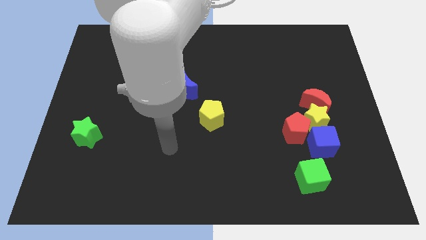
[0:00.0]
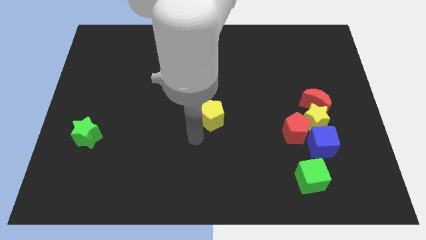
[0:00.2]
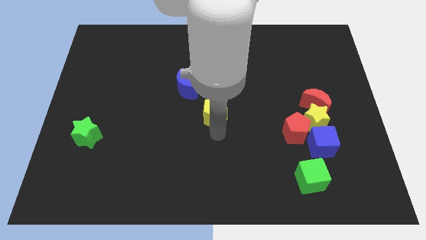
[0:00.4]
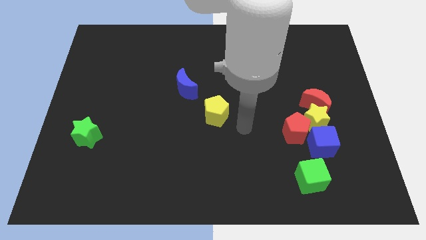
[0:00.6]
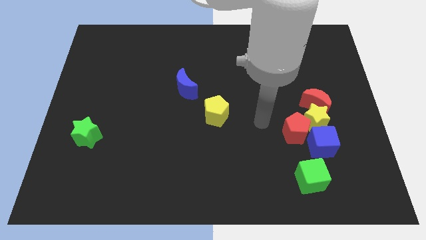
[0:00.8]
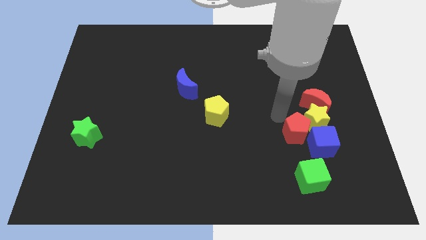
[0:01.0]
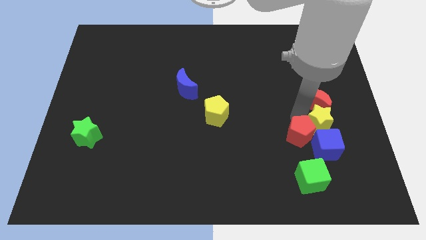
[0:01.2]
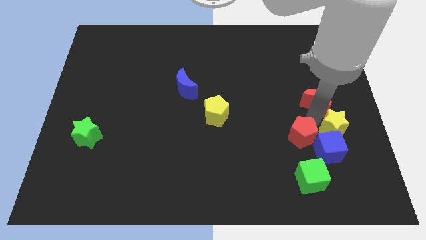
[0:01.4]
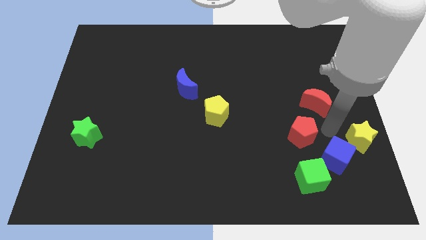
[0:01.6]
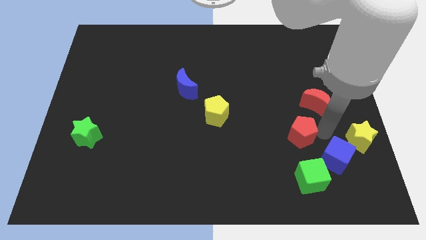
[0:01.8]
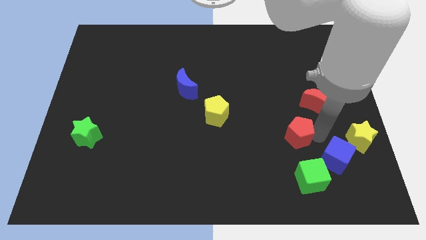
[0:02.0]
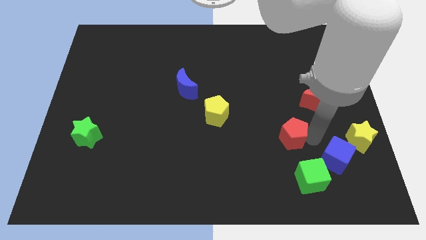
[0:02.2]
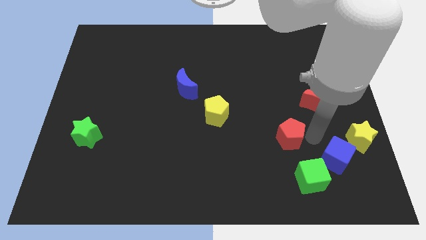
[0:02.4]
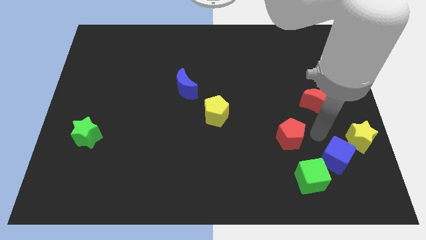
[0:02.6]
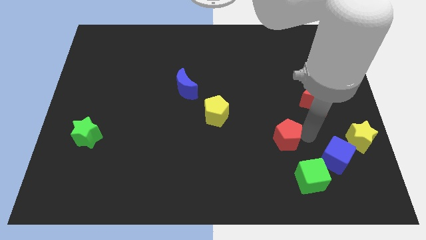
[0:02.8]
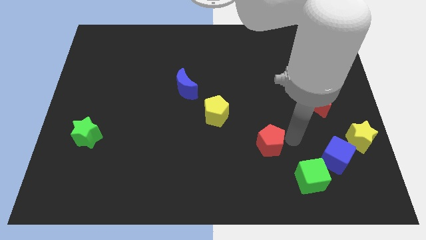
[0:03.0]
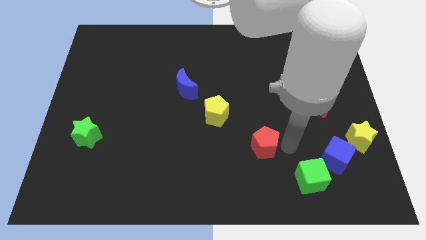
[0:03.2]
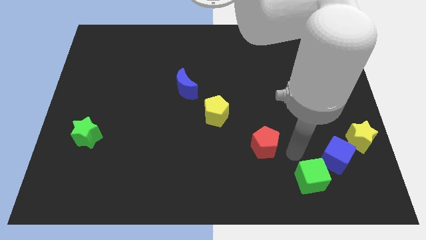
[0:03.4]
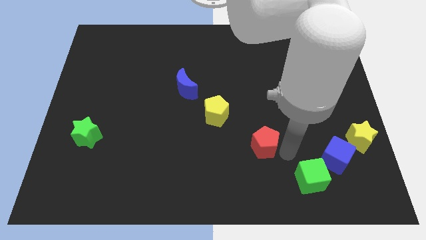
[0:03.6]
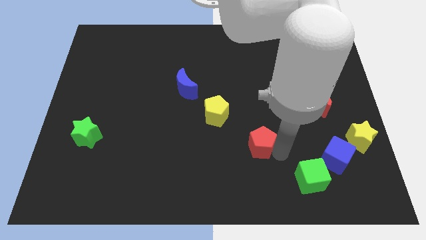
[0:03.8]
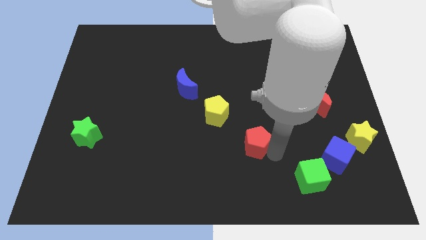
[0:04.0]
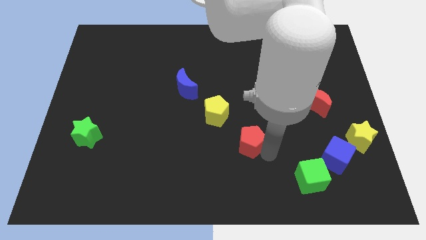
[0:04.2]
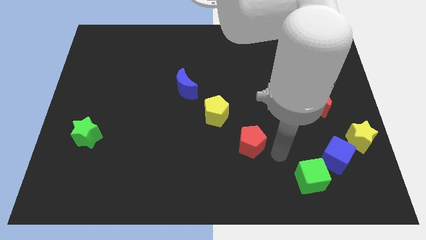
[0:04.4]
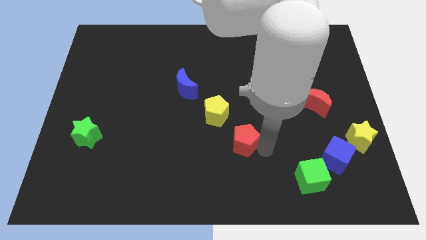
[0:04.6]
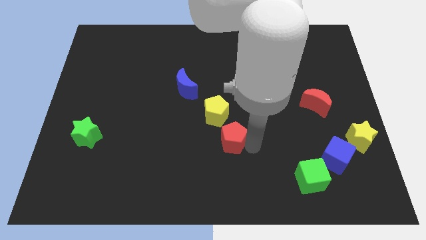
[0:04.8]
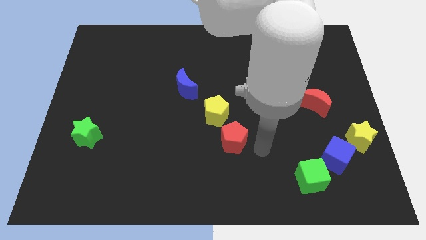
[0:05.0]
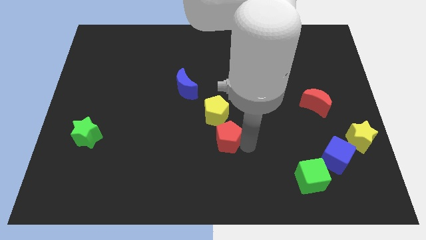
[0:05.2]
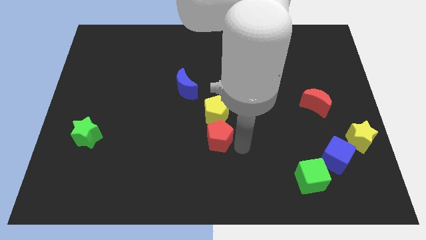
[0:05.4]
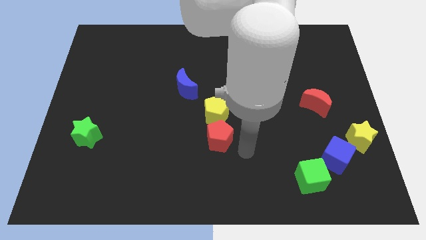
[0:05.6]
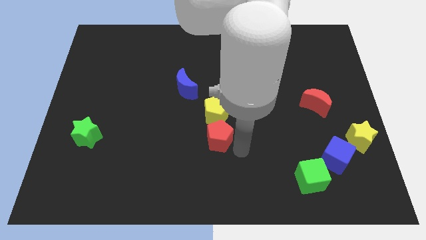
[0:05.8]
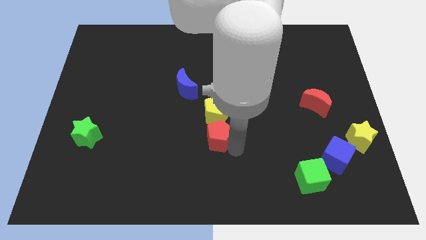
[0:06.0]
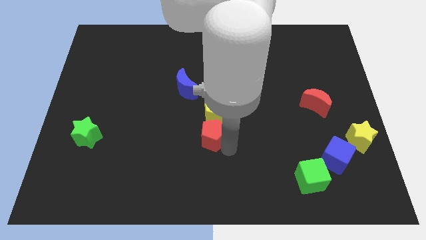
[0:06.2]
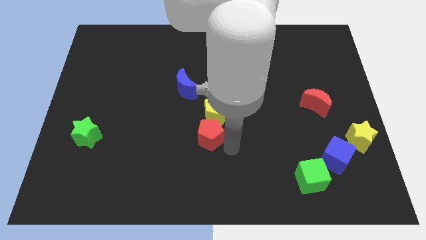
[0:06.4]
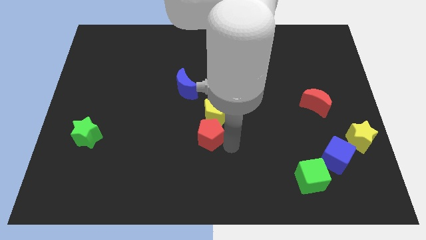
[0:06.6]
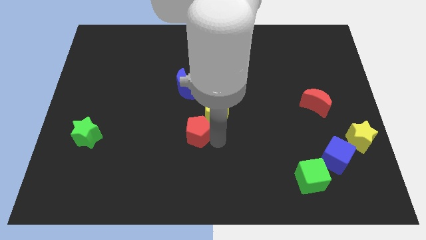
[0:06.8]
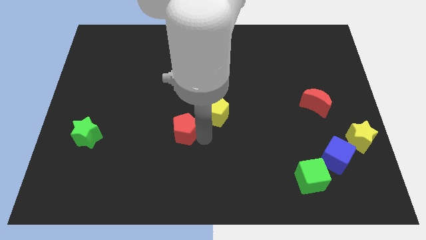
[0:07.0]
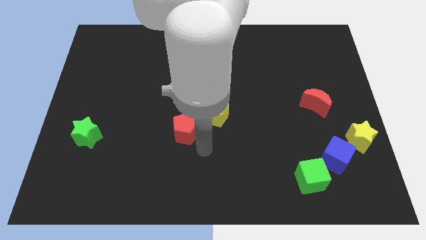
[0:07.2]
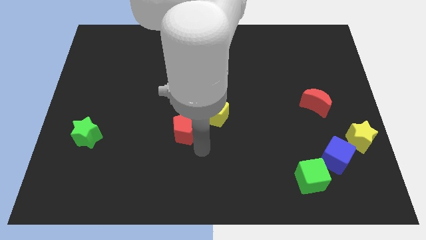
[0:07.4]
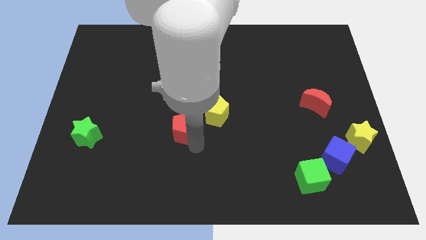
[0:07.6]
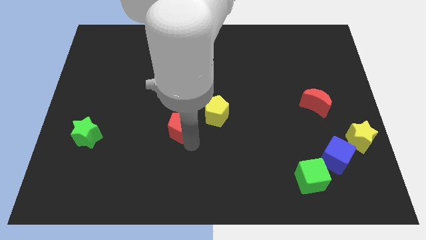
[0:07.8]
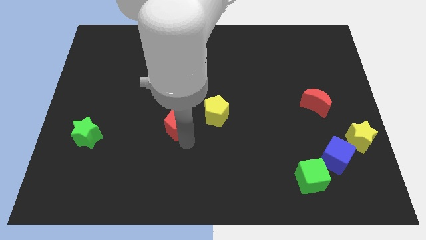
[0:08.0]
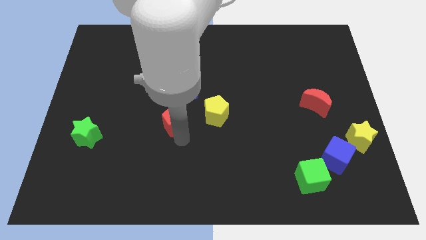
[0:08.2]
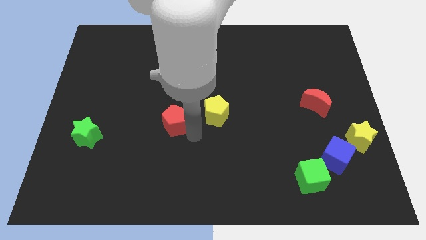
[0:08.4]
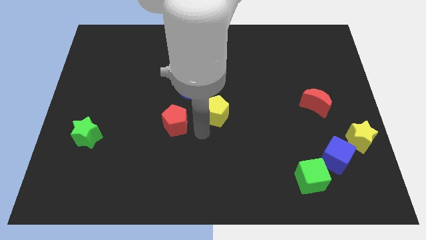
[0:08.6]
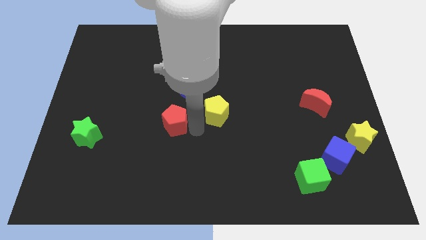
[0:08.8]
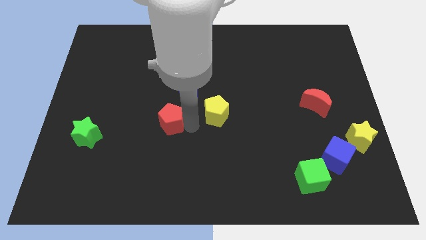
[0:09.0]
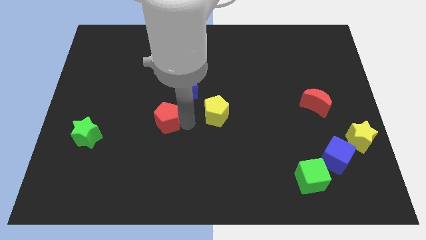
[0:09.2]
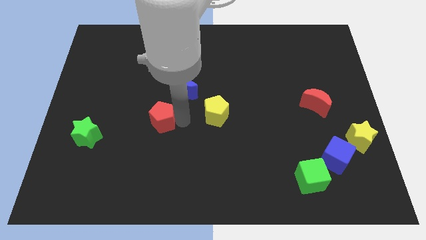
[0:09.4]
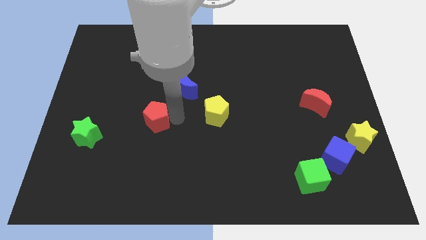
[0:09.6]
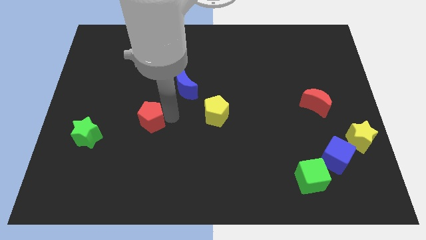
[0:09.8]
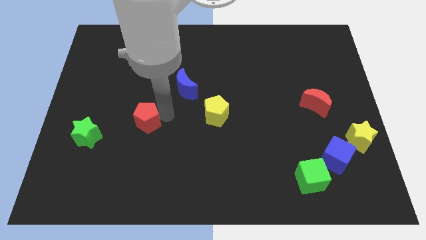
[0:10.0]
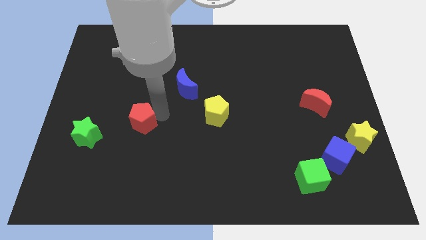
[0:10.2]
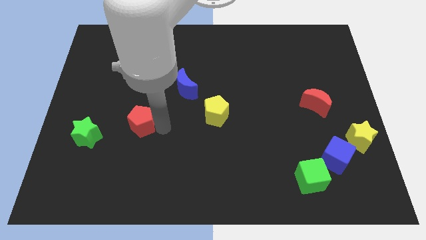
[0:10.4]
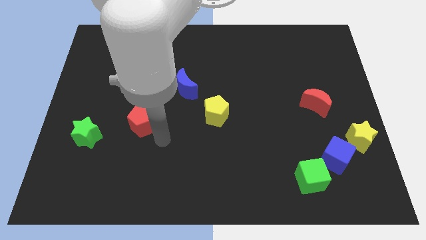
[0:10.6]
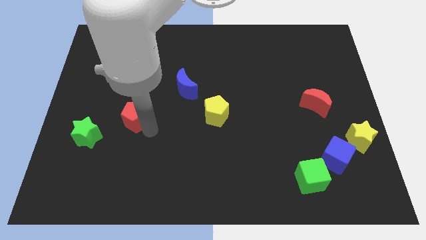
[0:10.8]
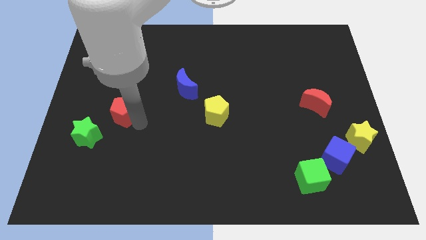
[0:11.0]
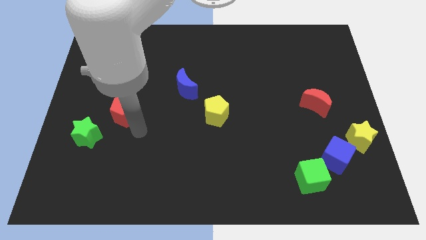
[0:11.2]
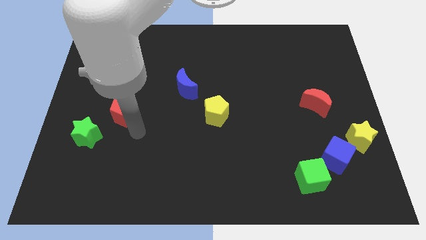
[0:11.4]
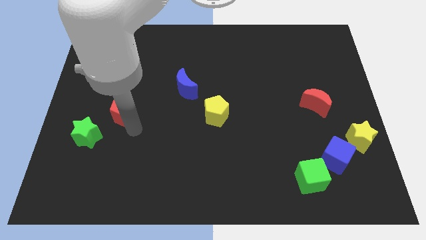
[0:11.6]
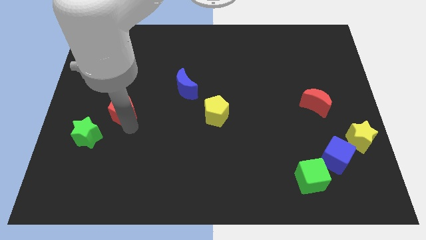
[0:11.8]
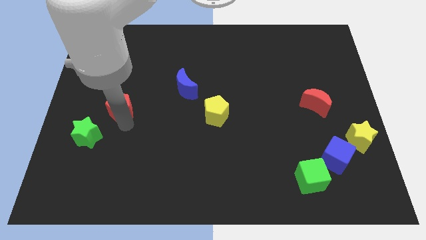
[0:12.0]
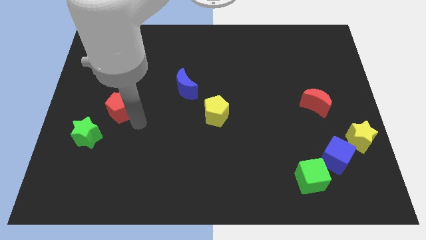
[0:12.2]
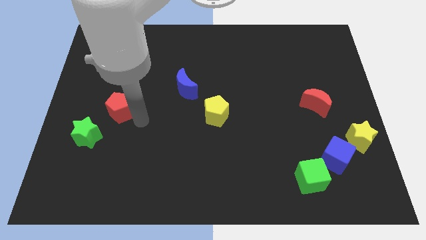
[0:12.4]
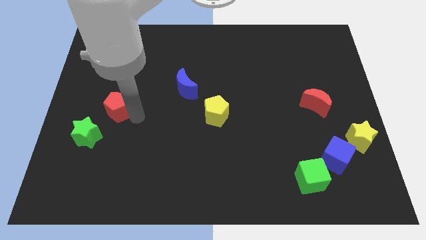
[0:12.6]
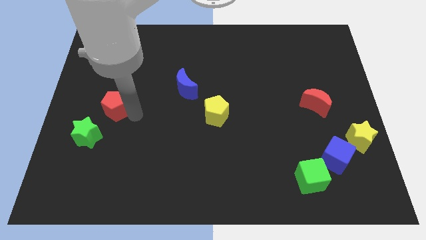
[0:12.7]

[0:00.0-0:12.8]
slide the red pentagon above the green star

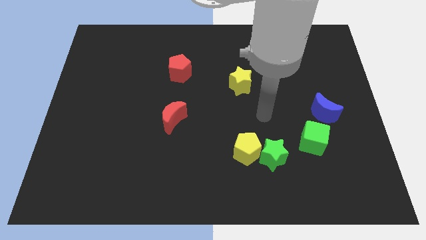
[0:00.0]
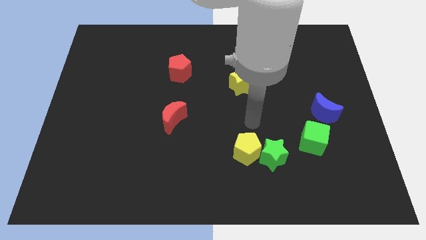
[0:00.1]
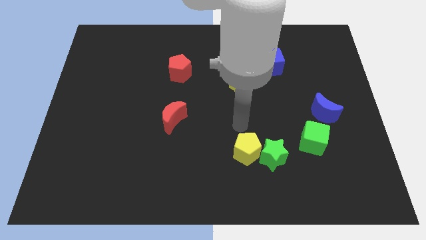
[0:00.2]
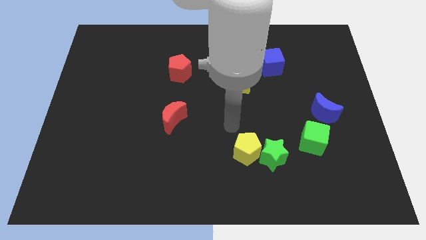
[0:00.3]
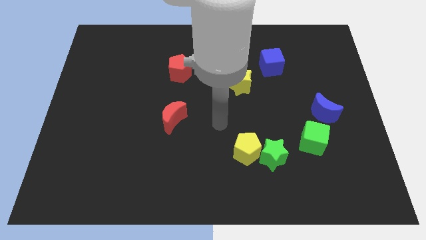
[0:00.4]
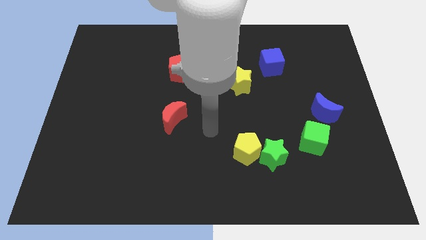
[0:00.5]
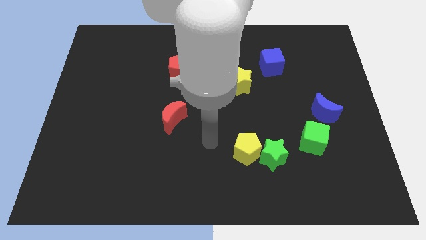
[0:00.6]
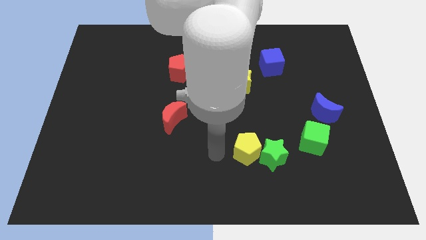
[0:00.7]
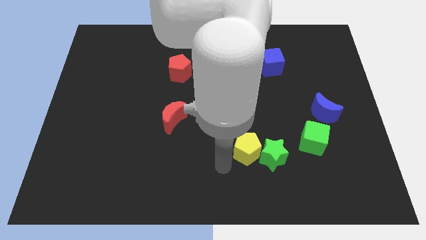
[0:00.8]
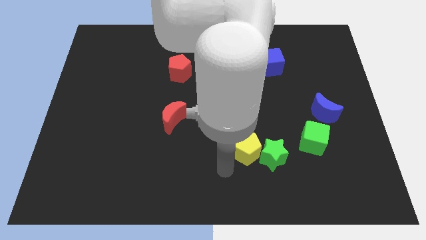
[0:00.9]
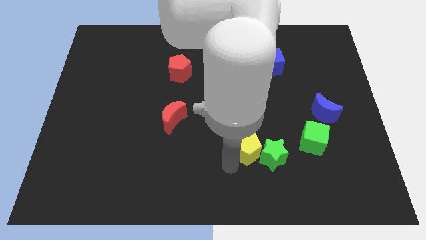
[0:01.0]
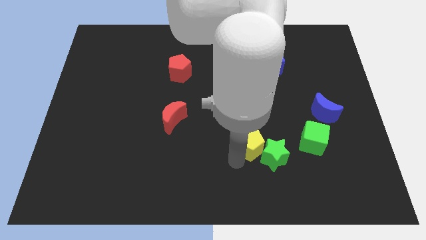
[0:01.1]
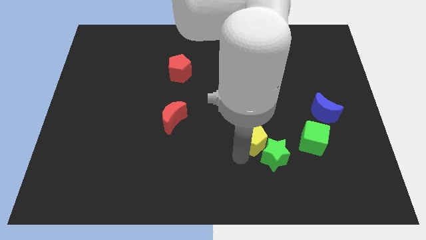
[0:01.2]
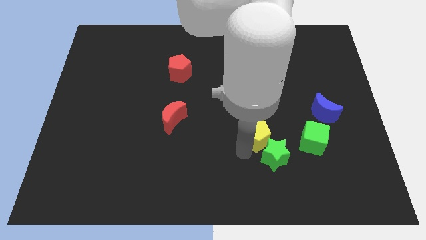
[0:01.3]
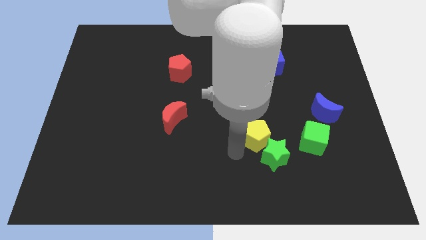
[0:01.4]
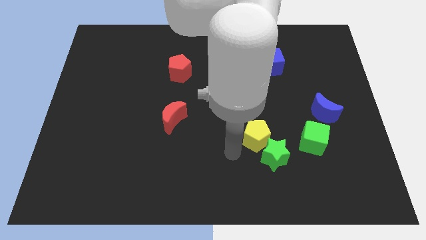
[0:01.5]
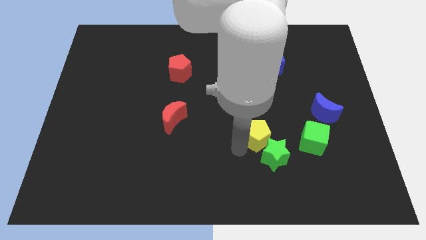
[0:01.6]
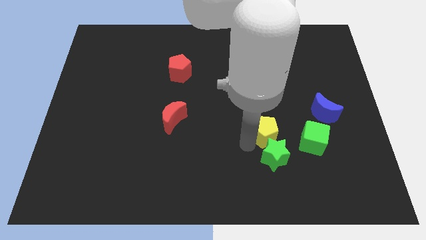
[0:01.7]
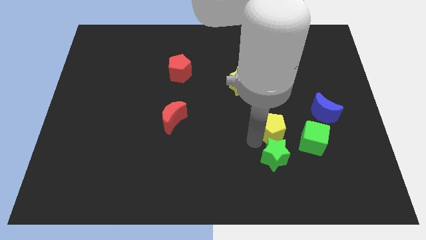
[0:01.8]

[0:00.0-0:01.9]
move the yellow pentagon to the top left side of the green cube
